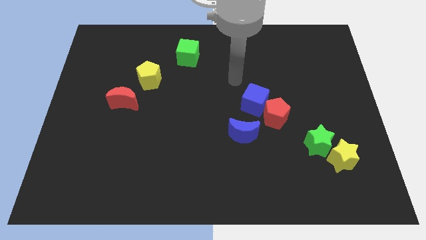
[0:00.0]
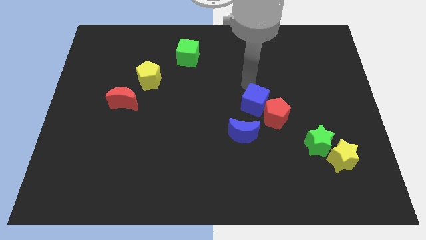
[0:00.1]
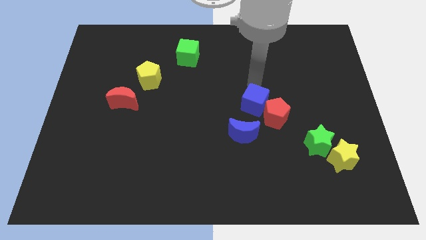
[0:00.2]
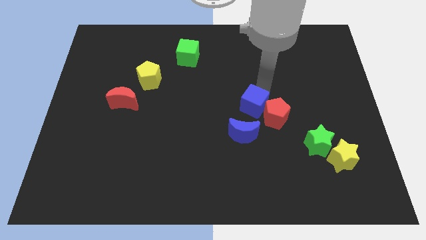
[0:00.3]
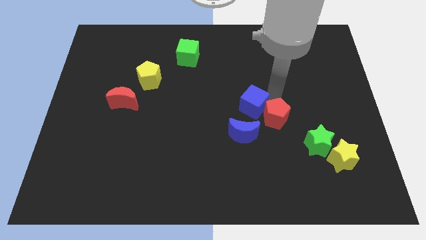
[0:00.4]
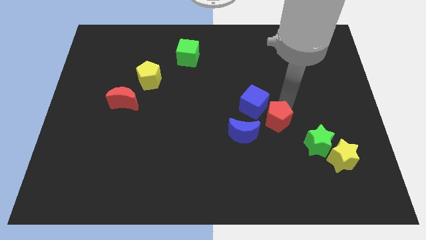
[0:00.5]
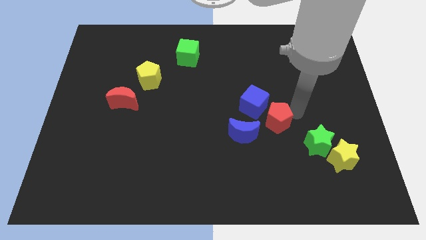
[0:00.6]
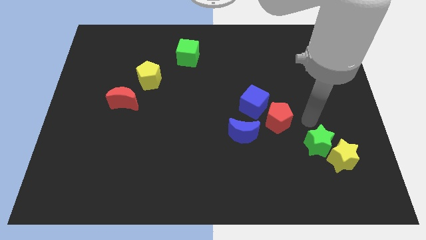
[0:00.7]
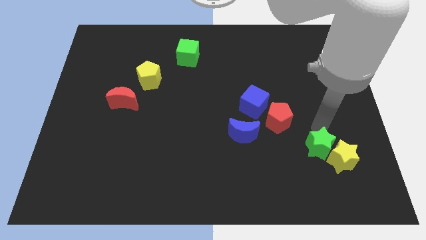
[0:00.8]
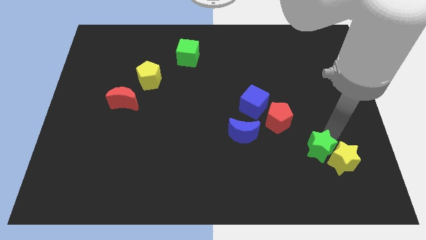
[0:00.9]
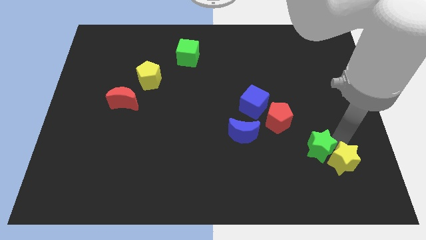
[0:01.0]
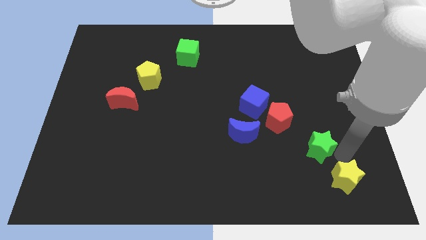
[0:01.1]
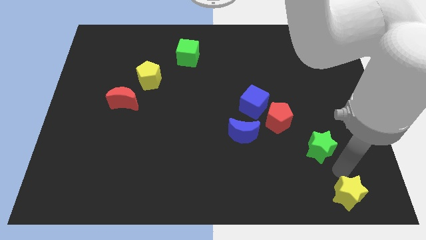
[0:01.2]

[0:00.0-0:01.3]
pull the green star apart from the yellow star

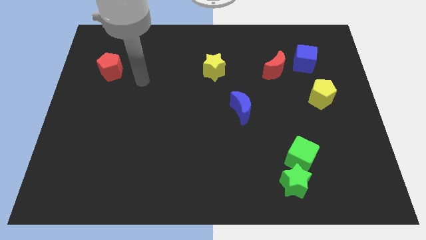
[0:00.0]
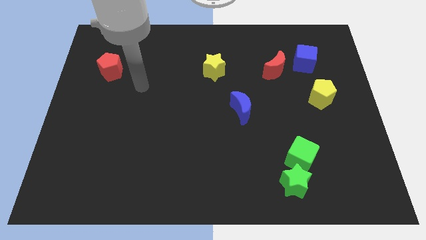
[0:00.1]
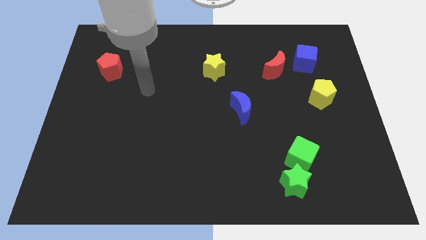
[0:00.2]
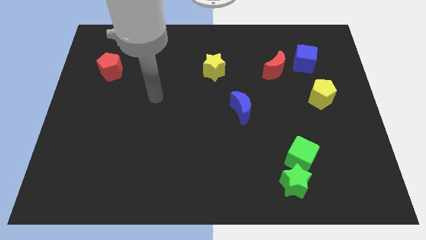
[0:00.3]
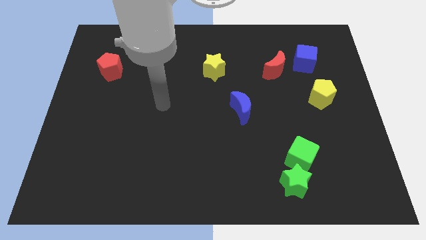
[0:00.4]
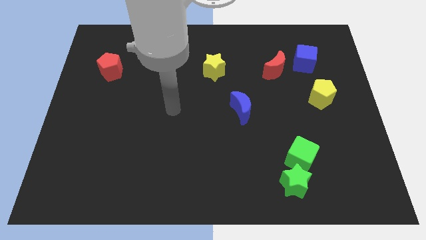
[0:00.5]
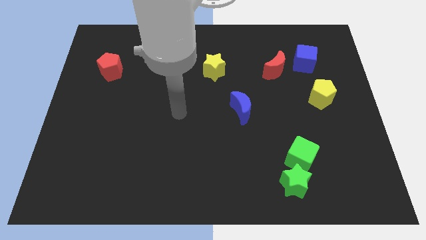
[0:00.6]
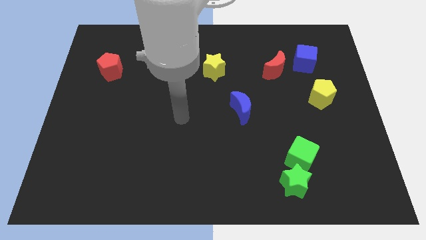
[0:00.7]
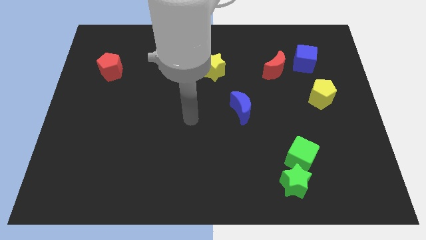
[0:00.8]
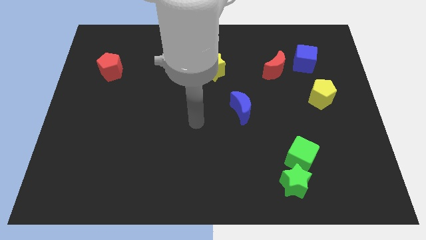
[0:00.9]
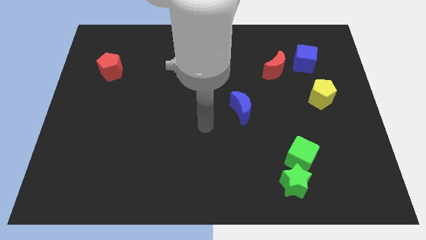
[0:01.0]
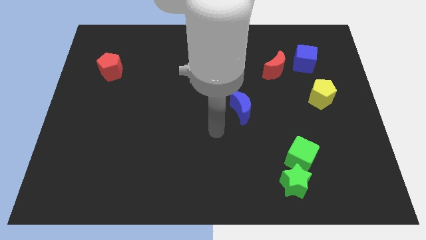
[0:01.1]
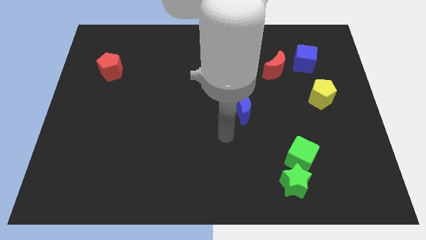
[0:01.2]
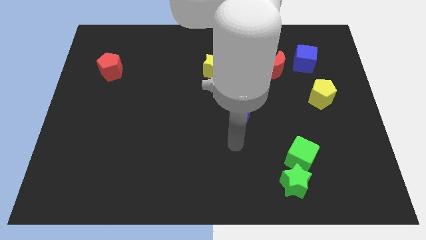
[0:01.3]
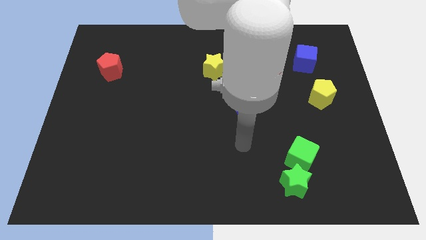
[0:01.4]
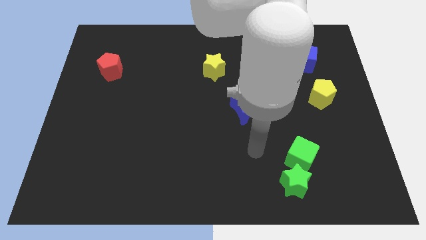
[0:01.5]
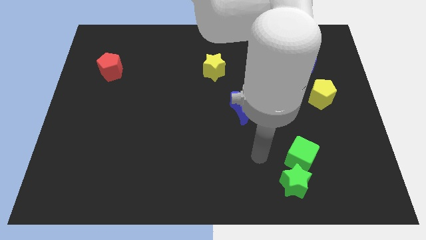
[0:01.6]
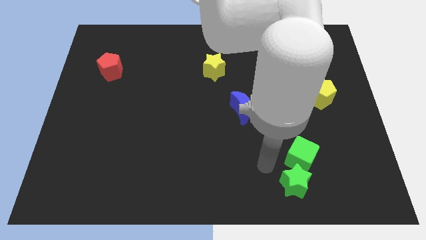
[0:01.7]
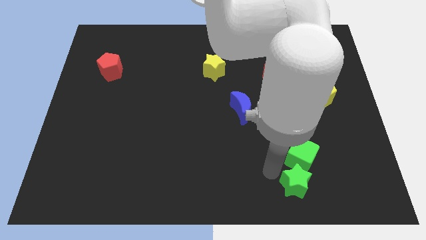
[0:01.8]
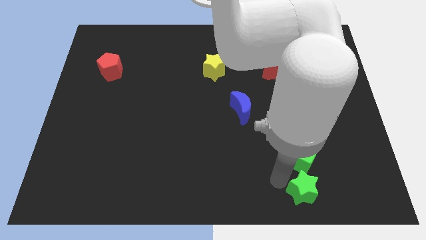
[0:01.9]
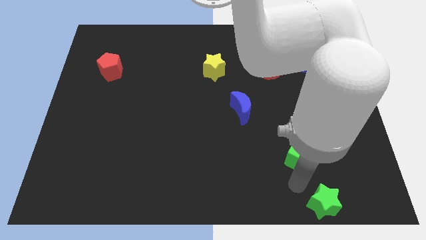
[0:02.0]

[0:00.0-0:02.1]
move the green cube away from the green star

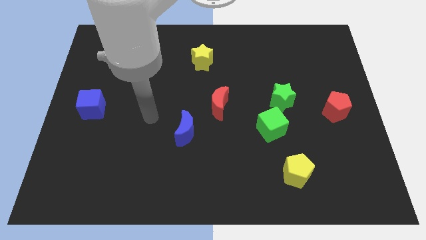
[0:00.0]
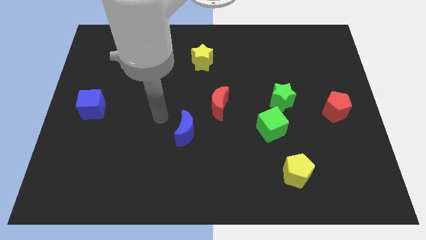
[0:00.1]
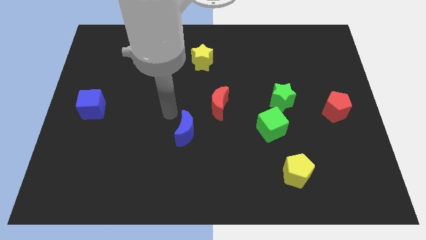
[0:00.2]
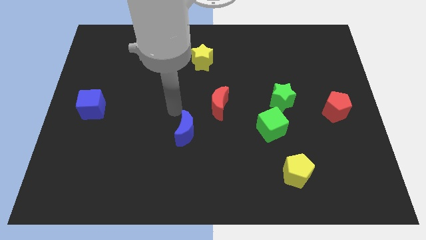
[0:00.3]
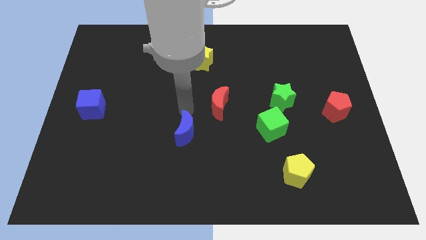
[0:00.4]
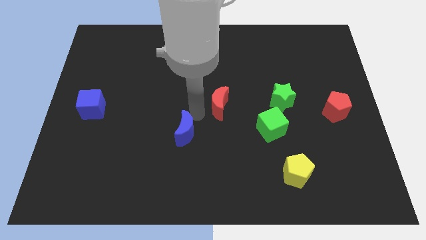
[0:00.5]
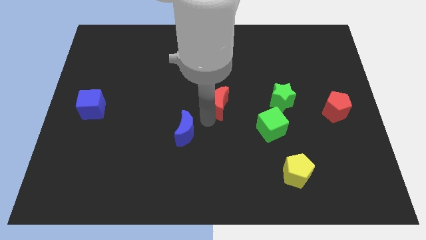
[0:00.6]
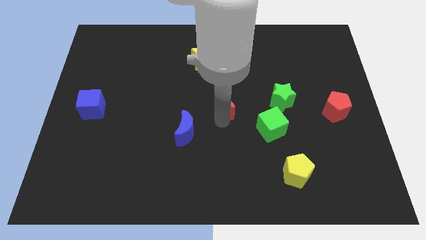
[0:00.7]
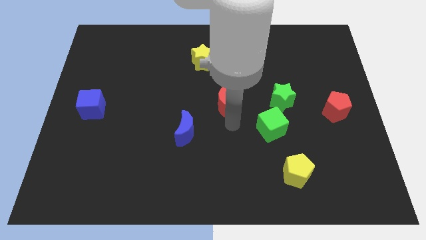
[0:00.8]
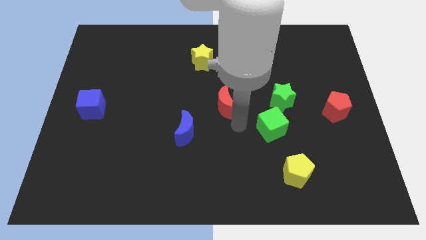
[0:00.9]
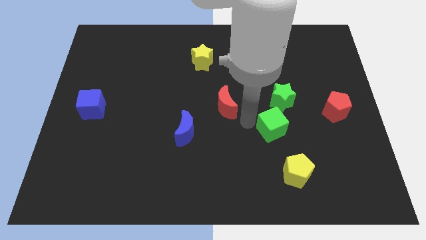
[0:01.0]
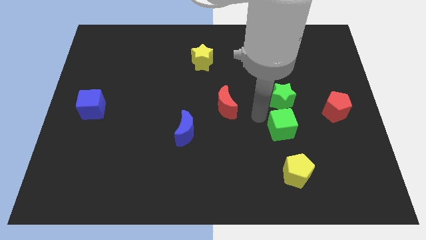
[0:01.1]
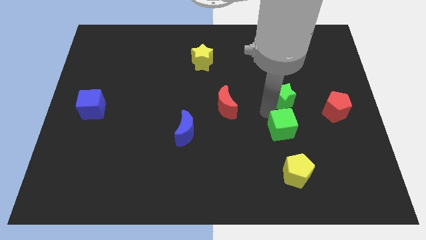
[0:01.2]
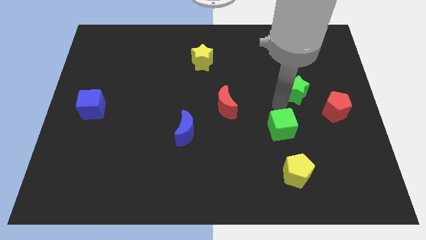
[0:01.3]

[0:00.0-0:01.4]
pull the green cube apart from the green star

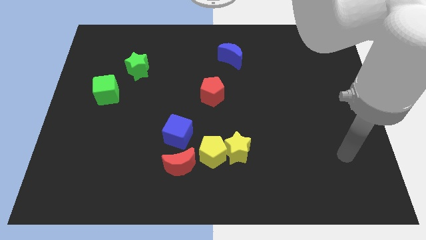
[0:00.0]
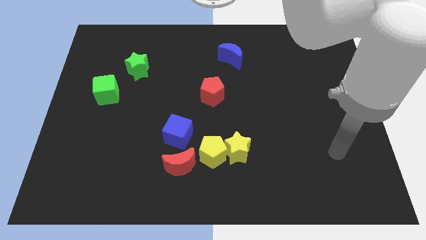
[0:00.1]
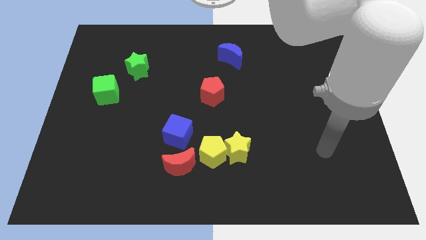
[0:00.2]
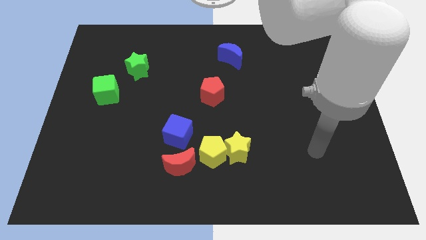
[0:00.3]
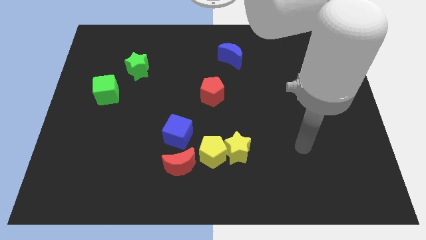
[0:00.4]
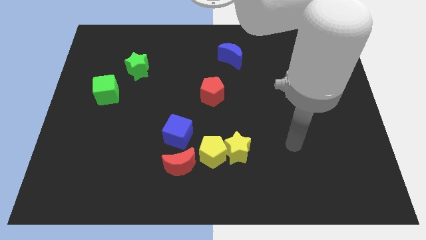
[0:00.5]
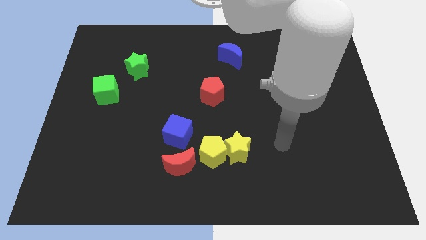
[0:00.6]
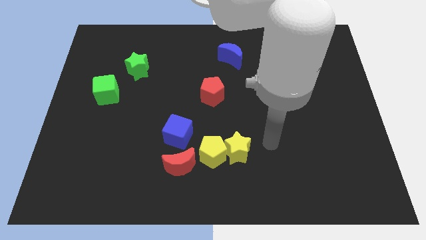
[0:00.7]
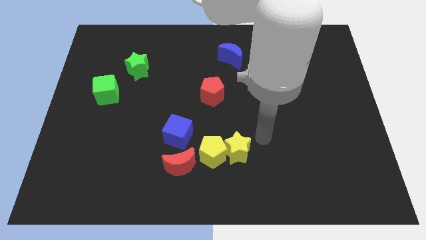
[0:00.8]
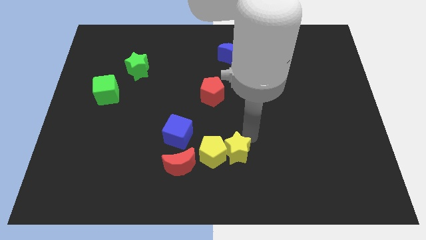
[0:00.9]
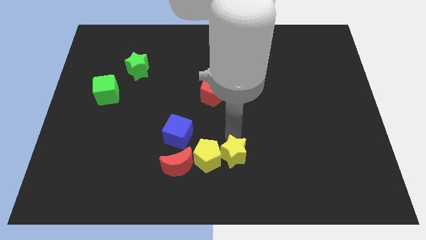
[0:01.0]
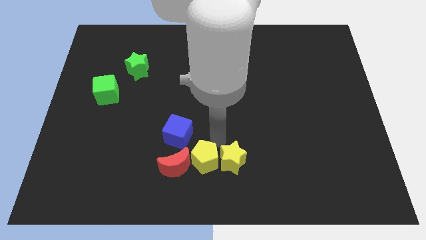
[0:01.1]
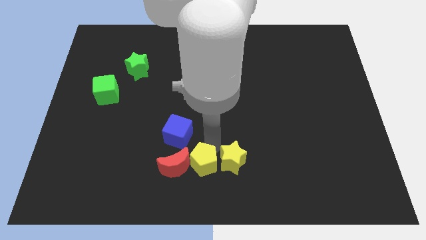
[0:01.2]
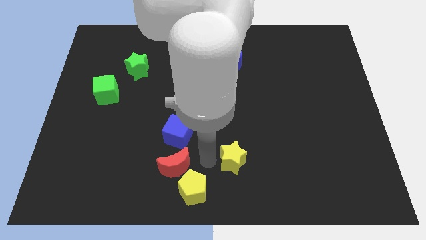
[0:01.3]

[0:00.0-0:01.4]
pull the yellow star apart from the yellow pentagon

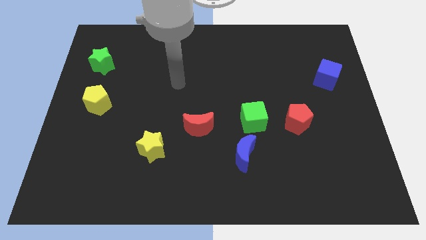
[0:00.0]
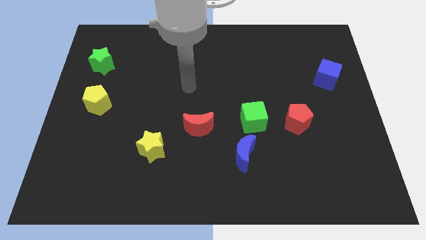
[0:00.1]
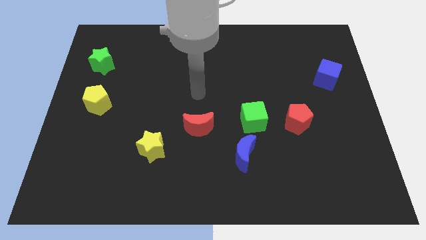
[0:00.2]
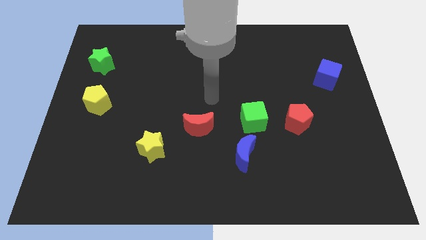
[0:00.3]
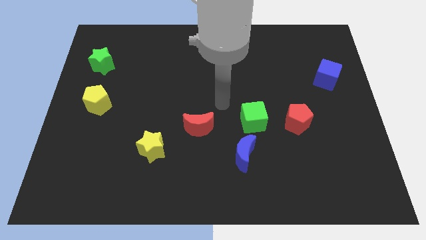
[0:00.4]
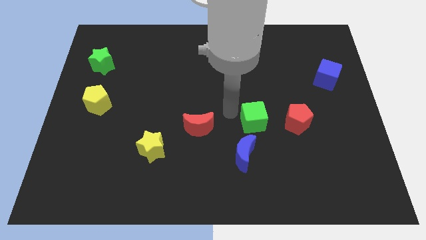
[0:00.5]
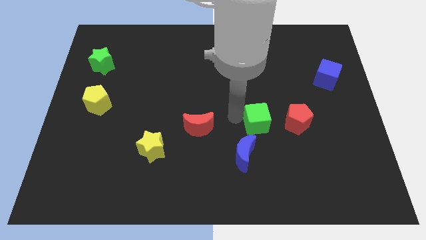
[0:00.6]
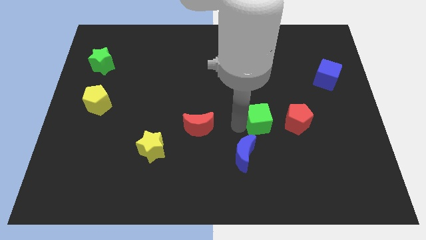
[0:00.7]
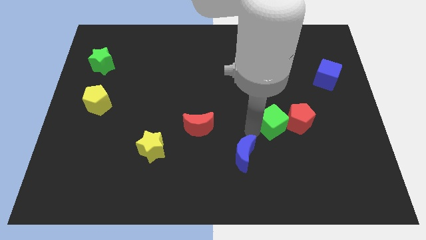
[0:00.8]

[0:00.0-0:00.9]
move the blue moon away from the green cube

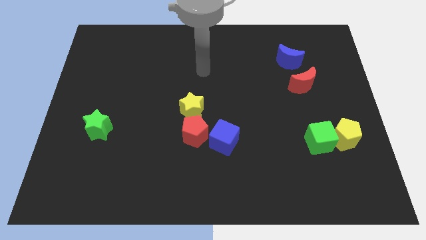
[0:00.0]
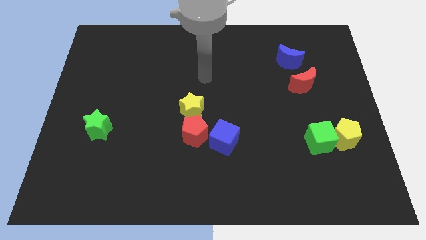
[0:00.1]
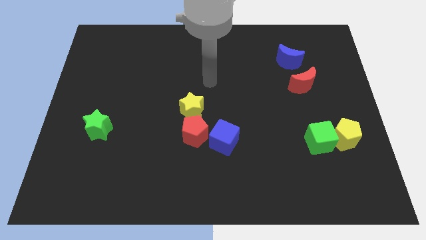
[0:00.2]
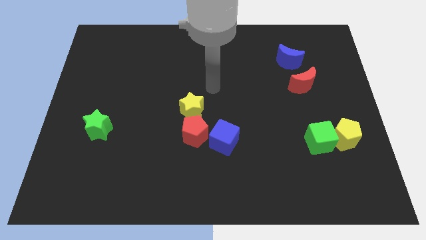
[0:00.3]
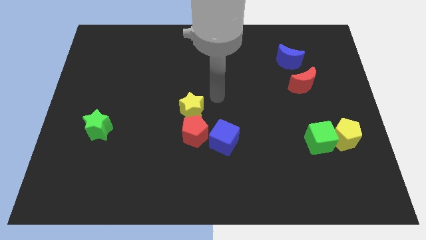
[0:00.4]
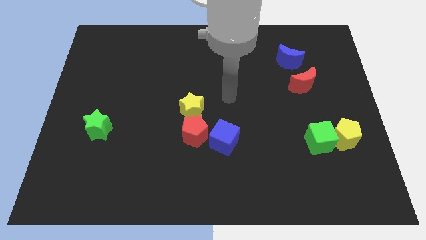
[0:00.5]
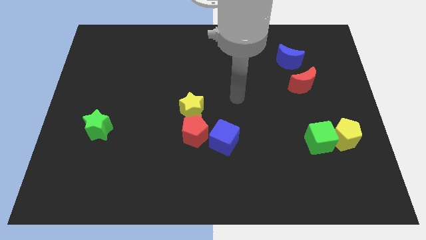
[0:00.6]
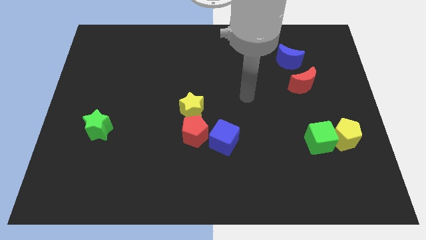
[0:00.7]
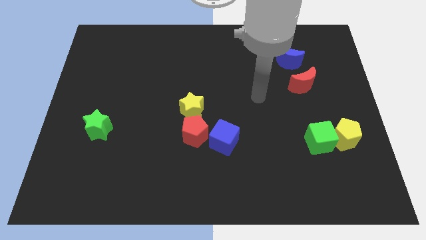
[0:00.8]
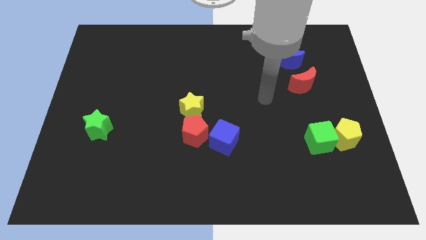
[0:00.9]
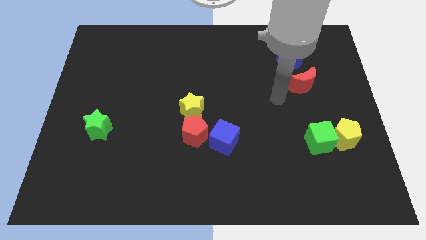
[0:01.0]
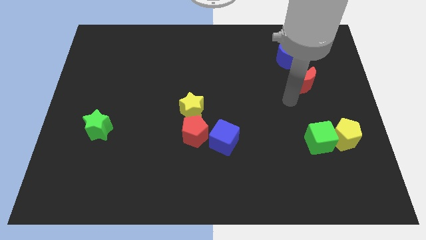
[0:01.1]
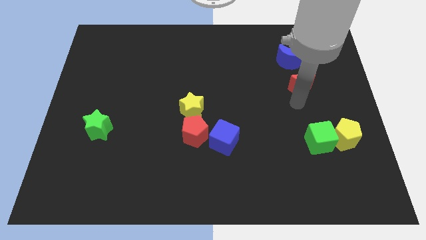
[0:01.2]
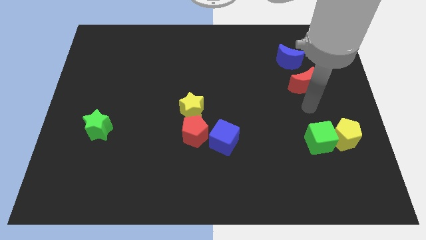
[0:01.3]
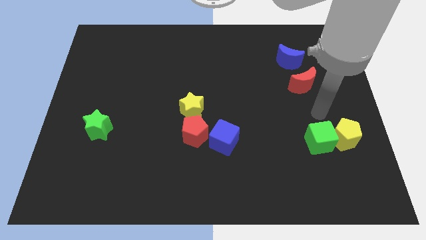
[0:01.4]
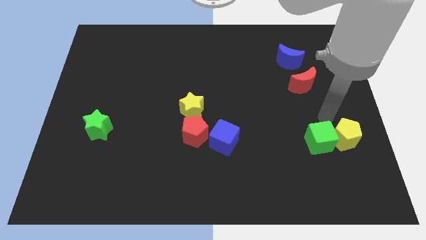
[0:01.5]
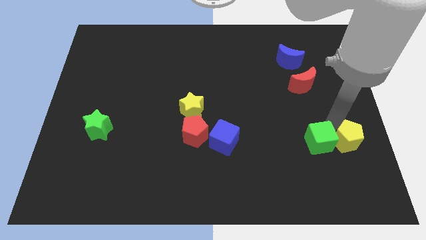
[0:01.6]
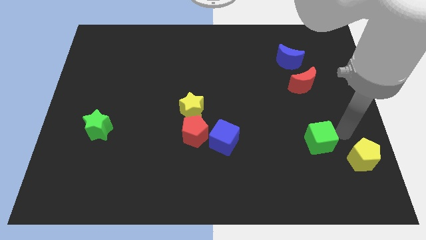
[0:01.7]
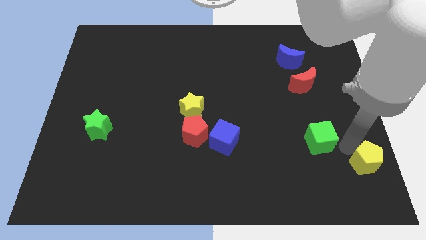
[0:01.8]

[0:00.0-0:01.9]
pull the green cube apart from the yellow pentagon

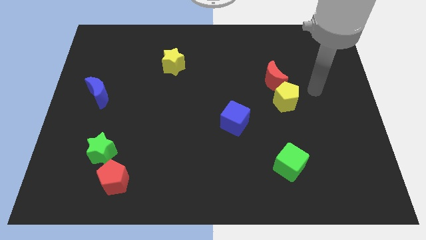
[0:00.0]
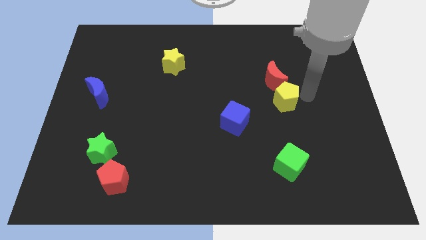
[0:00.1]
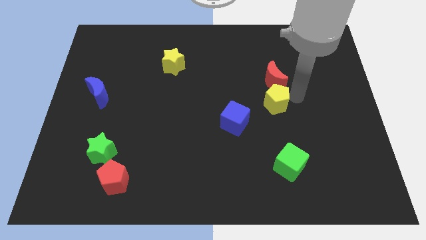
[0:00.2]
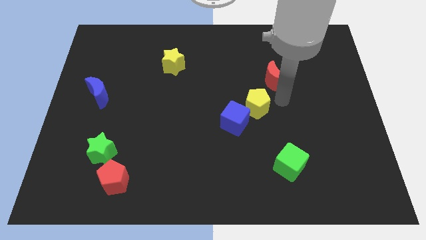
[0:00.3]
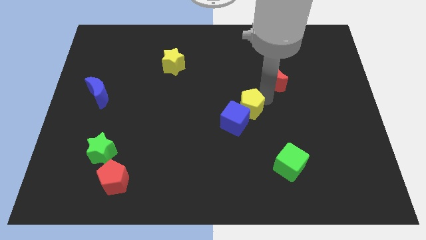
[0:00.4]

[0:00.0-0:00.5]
move the red moon away from the yellow pentagon
